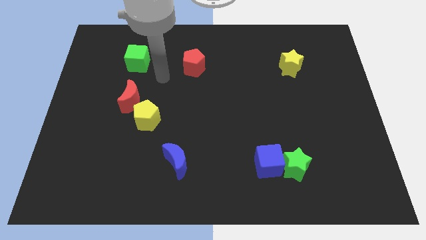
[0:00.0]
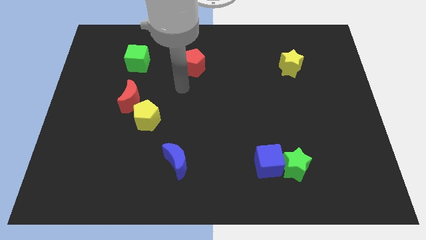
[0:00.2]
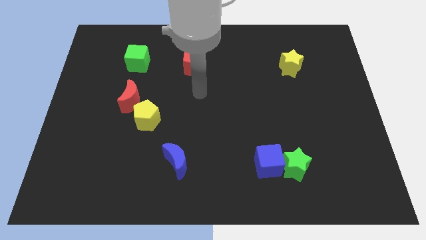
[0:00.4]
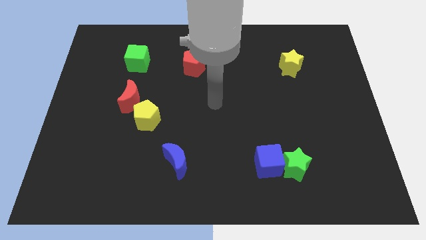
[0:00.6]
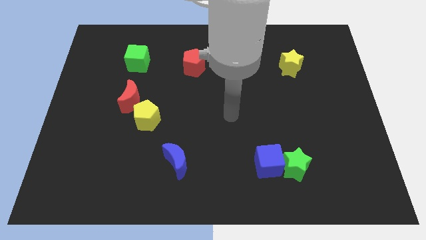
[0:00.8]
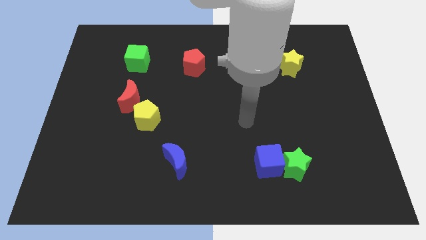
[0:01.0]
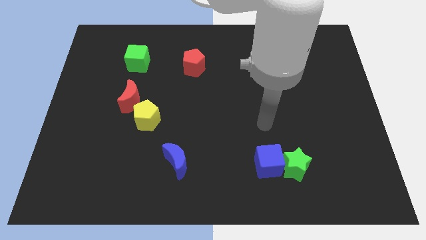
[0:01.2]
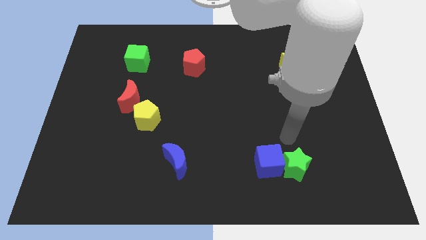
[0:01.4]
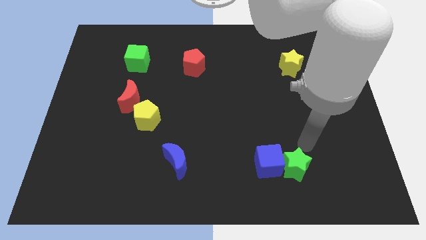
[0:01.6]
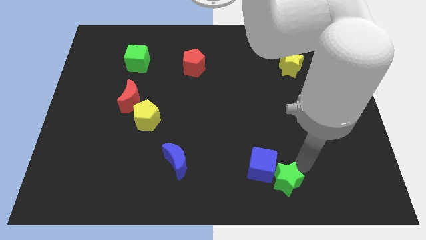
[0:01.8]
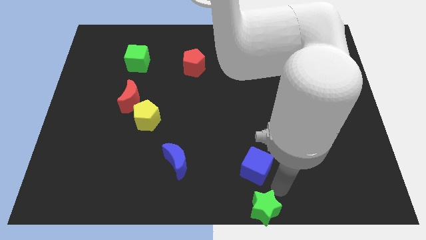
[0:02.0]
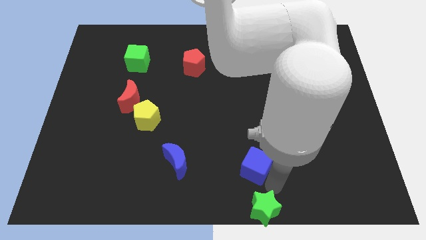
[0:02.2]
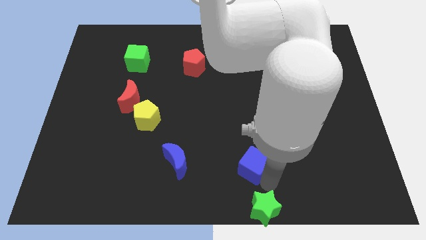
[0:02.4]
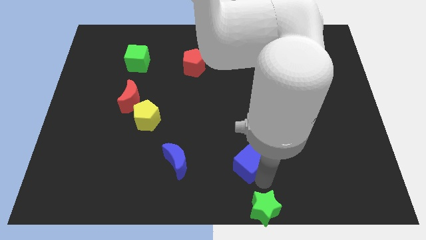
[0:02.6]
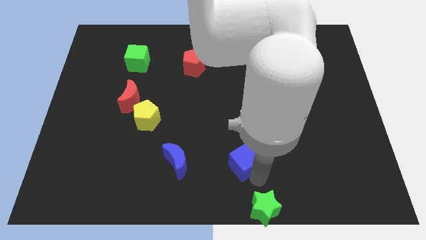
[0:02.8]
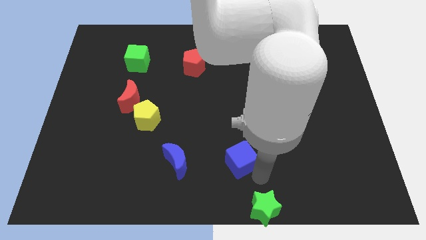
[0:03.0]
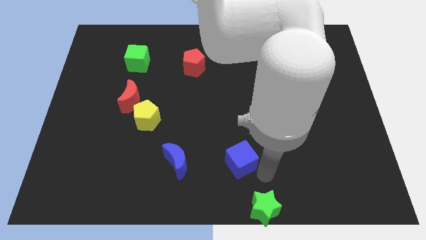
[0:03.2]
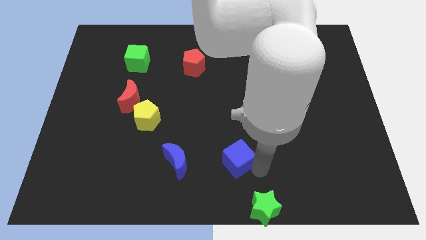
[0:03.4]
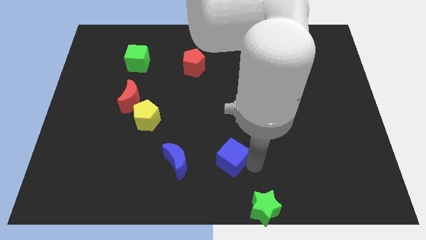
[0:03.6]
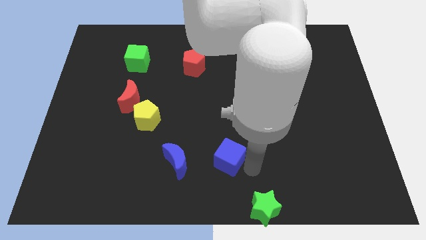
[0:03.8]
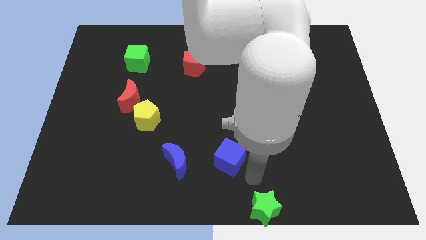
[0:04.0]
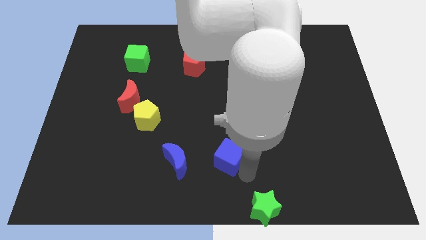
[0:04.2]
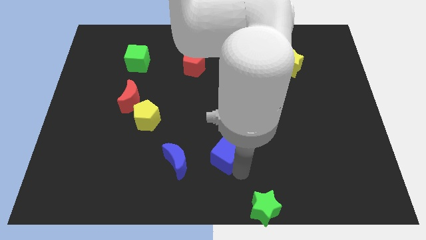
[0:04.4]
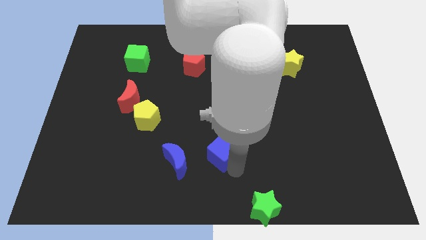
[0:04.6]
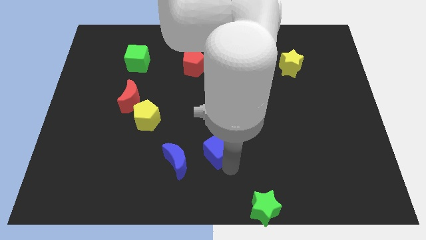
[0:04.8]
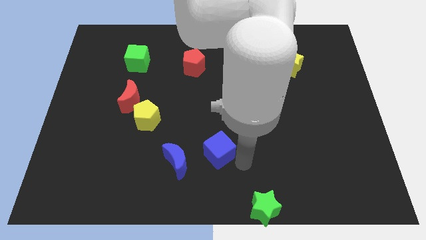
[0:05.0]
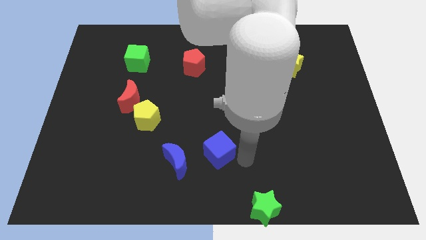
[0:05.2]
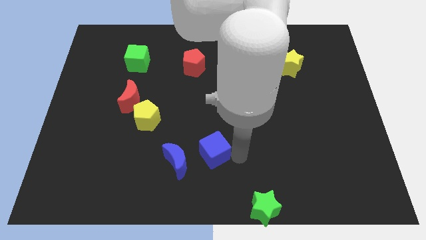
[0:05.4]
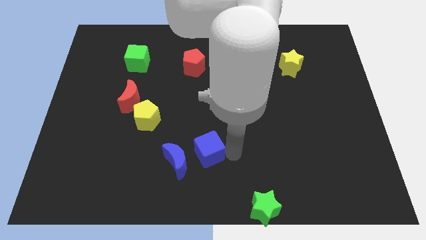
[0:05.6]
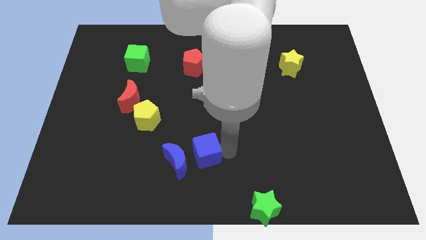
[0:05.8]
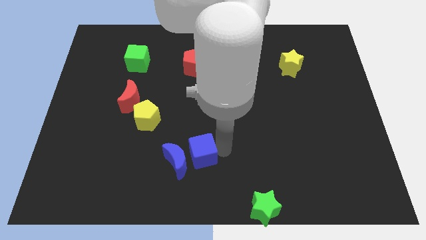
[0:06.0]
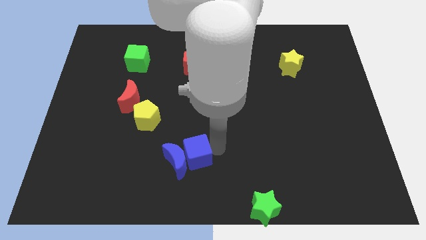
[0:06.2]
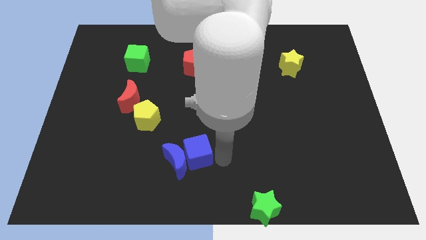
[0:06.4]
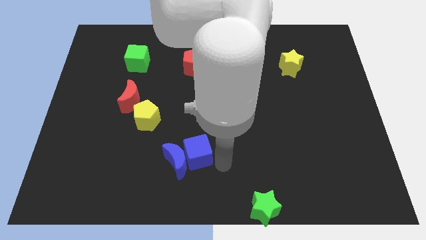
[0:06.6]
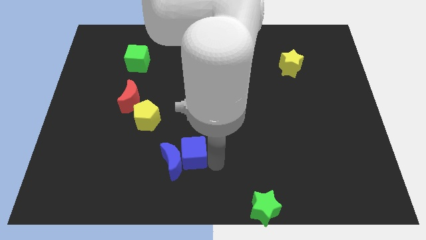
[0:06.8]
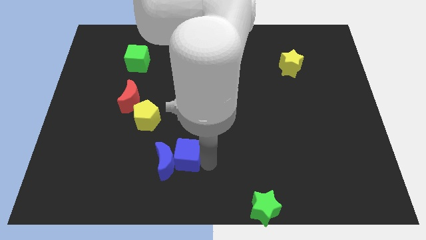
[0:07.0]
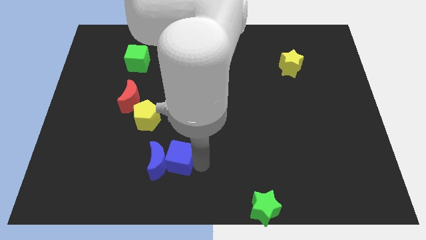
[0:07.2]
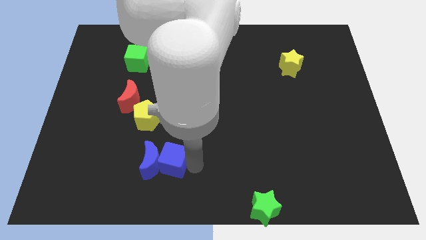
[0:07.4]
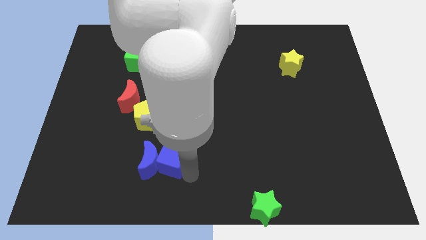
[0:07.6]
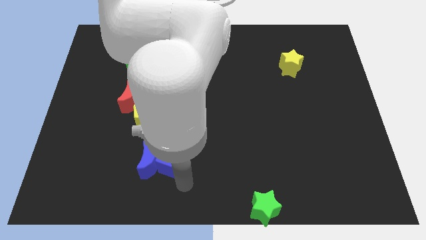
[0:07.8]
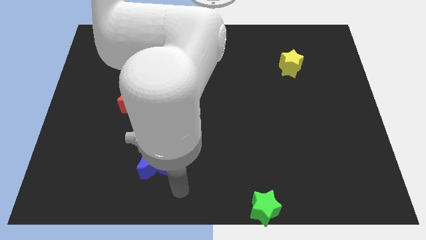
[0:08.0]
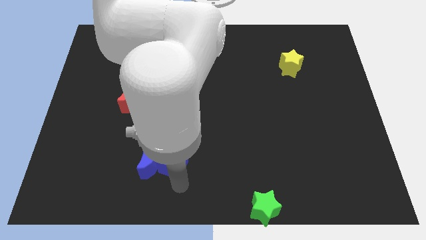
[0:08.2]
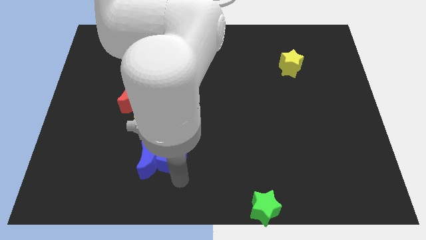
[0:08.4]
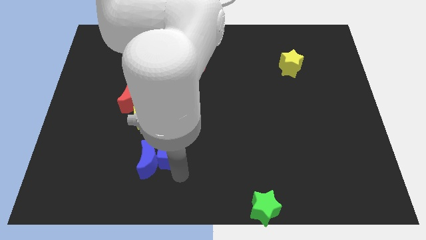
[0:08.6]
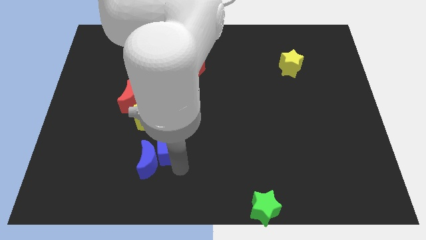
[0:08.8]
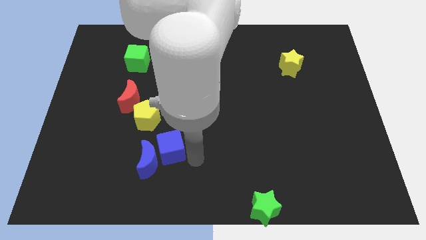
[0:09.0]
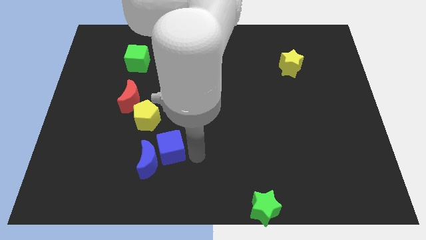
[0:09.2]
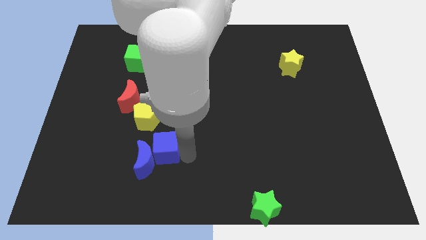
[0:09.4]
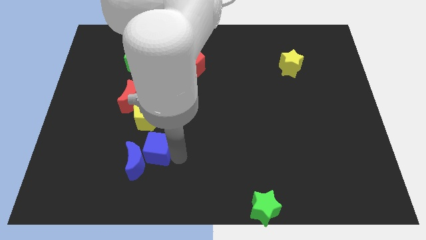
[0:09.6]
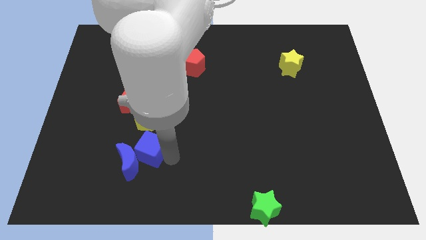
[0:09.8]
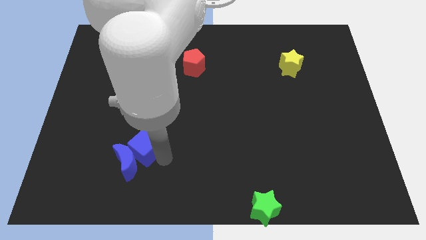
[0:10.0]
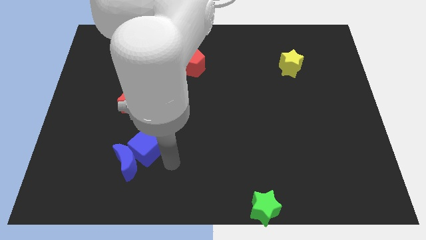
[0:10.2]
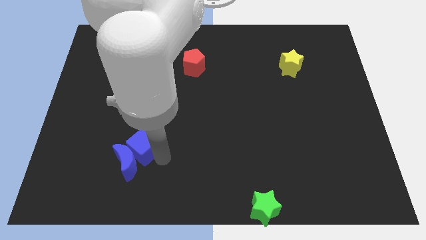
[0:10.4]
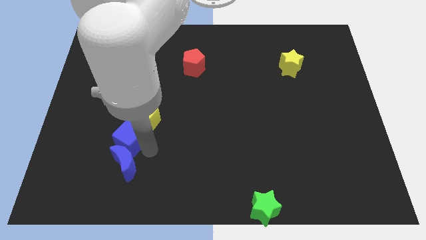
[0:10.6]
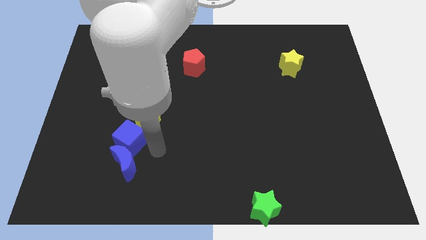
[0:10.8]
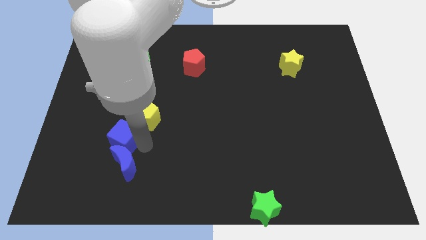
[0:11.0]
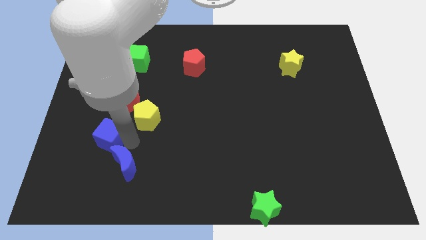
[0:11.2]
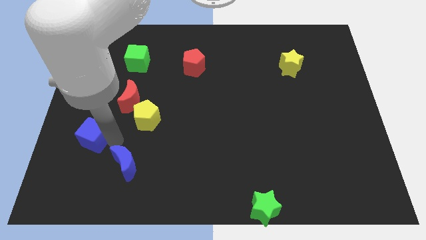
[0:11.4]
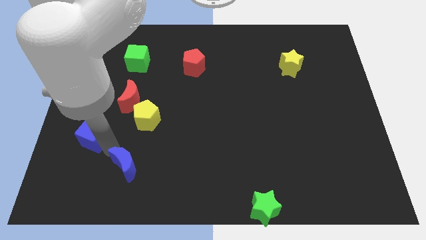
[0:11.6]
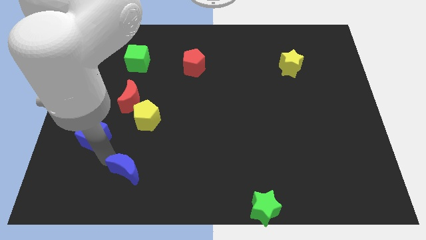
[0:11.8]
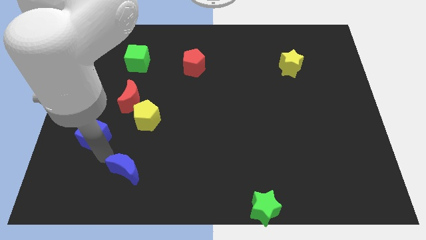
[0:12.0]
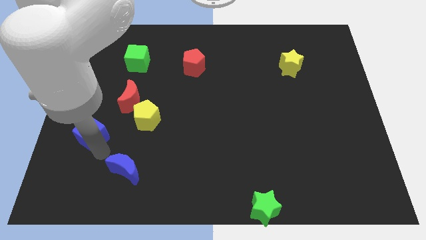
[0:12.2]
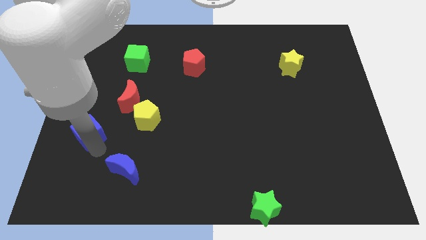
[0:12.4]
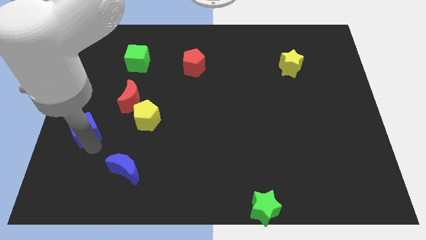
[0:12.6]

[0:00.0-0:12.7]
move the blue cube to the left side of the board
